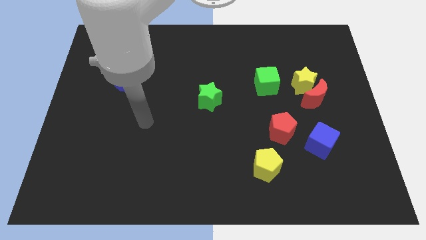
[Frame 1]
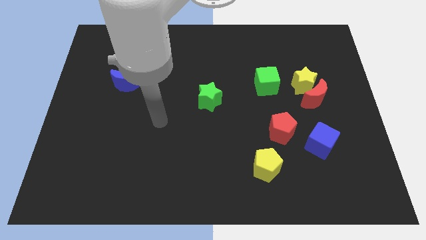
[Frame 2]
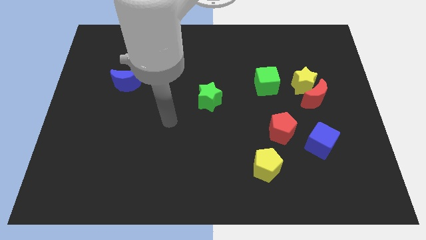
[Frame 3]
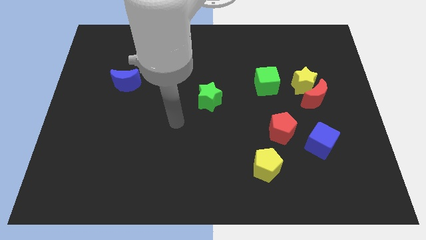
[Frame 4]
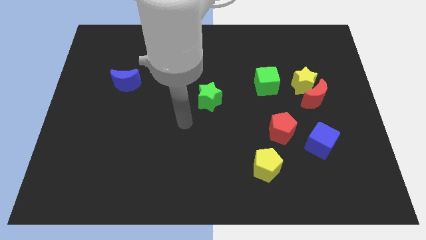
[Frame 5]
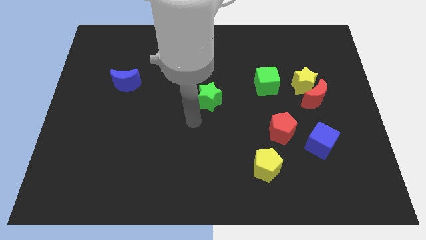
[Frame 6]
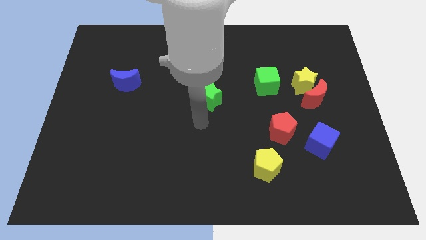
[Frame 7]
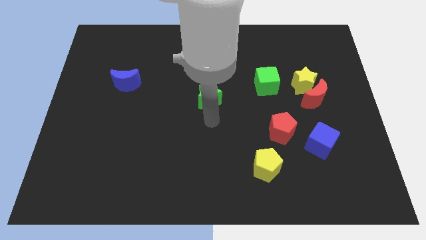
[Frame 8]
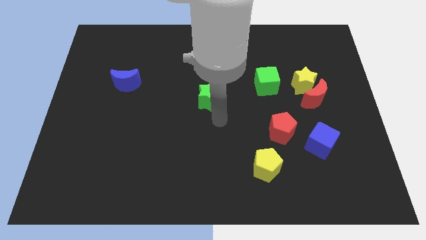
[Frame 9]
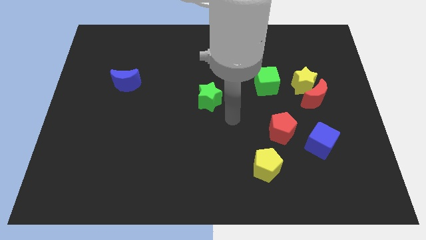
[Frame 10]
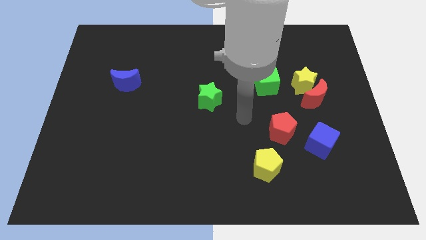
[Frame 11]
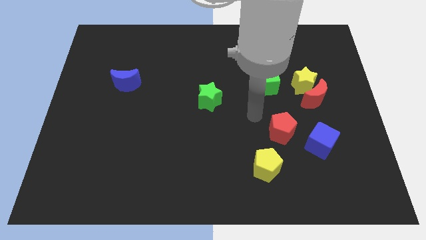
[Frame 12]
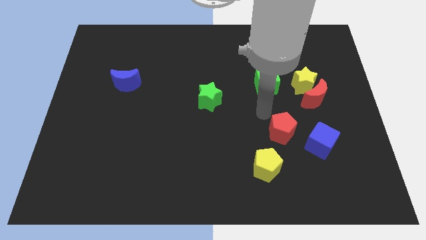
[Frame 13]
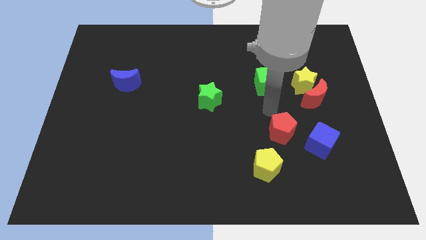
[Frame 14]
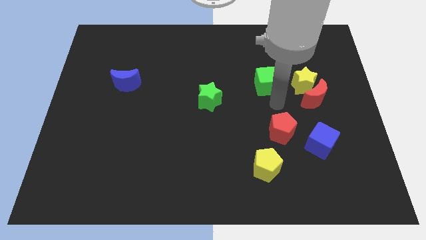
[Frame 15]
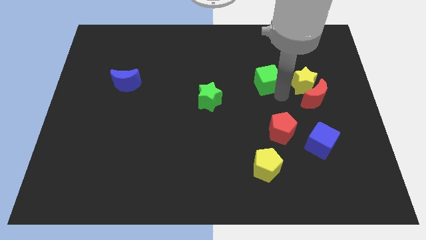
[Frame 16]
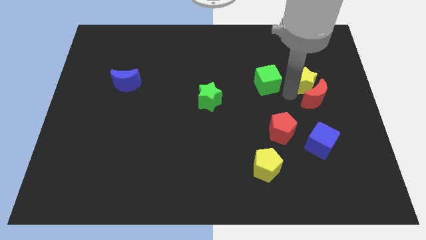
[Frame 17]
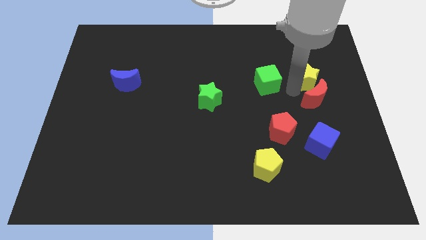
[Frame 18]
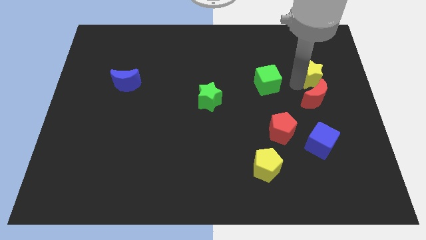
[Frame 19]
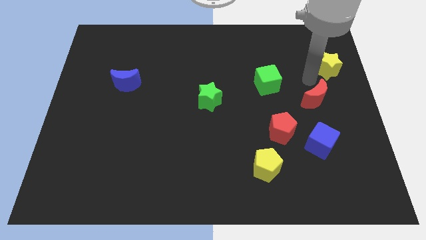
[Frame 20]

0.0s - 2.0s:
pull the red moon apart from the yellow star

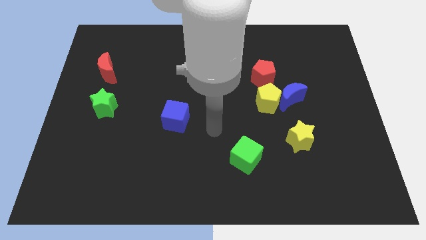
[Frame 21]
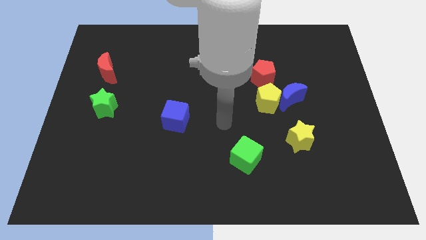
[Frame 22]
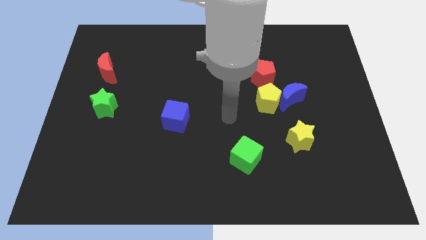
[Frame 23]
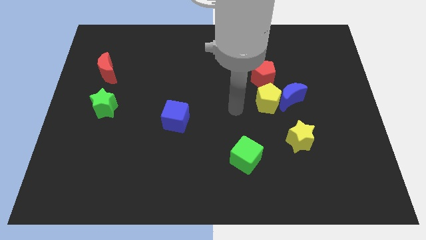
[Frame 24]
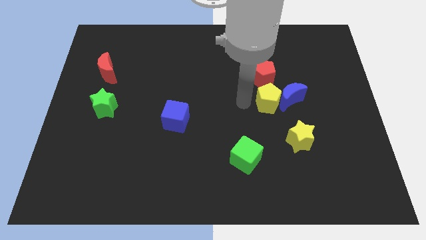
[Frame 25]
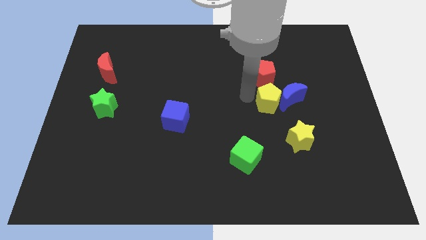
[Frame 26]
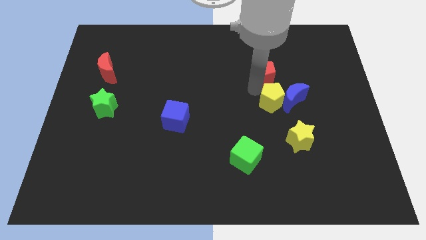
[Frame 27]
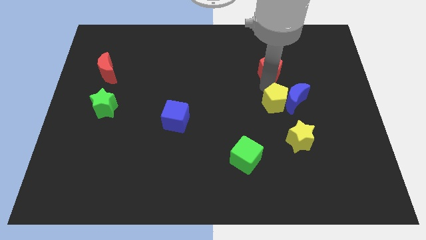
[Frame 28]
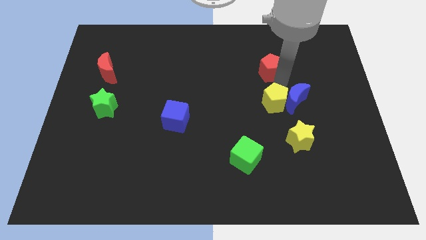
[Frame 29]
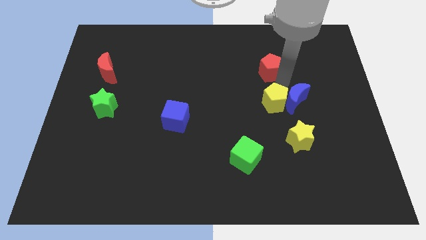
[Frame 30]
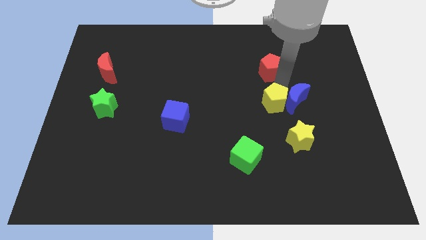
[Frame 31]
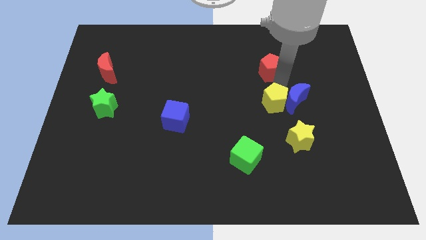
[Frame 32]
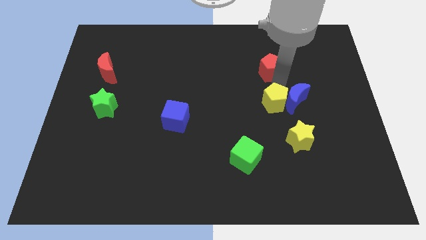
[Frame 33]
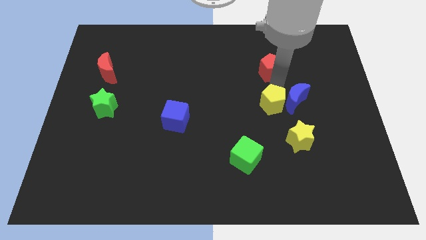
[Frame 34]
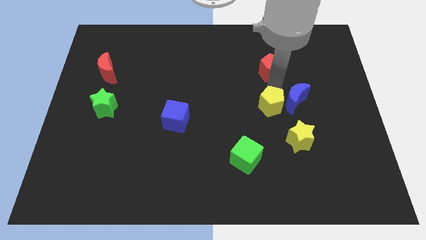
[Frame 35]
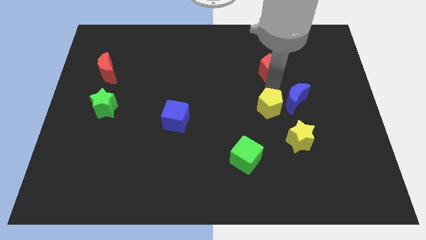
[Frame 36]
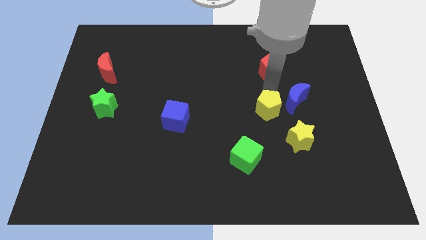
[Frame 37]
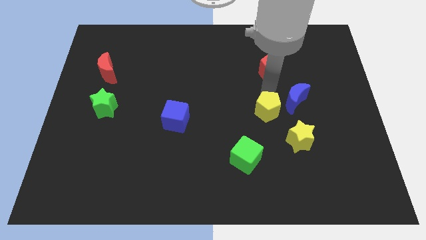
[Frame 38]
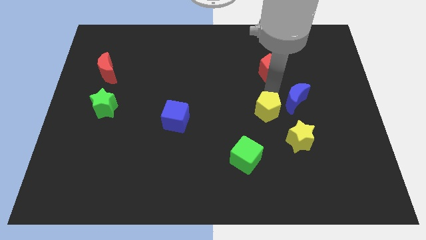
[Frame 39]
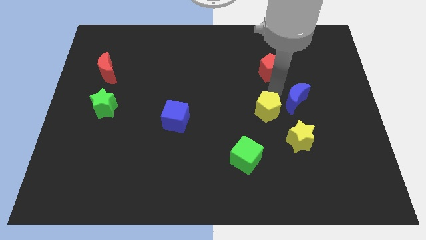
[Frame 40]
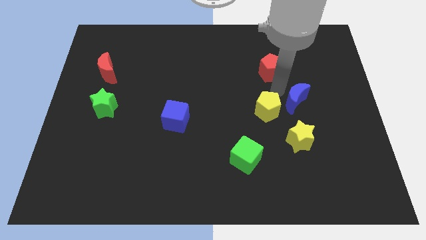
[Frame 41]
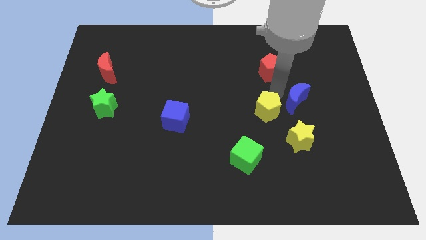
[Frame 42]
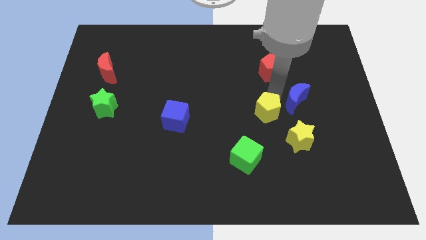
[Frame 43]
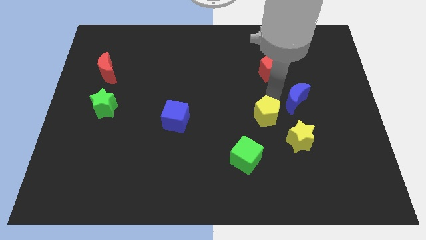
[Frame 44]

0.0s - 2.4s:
separate the yellow pentagon from the blue moon and red pentagon

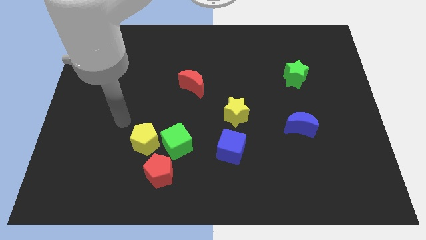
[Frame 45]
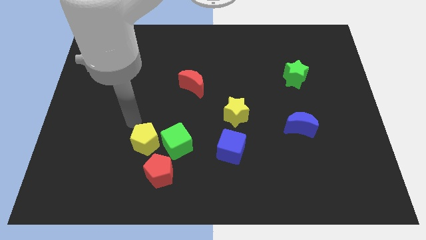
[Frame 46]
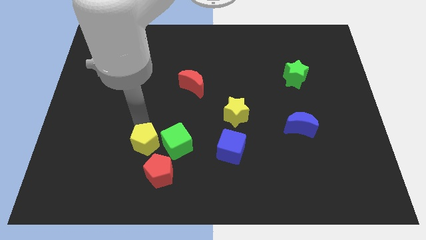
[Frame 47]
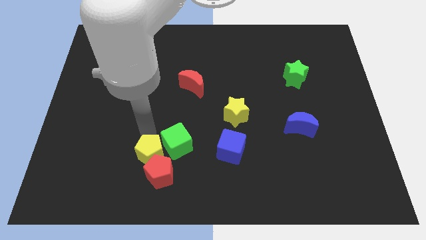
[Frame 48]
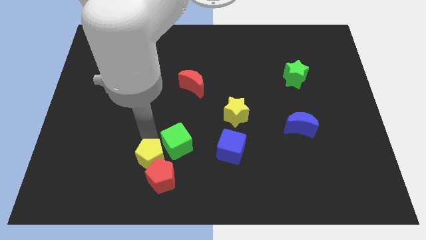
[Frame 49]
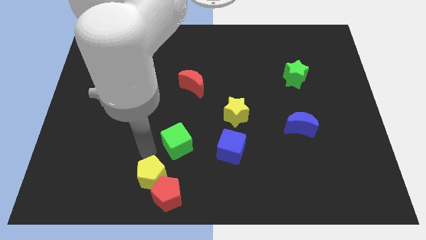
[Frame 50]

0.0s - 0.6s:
move the green cube away from the yellow pentagon and red pentagon

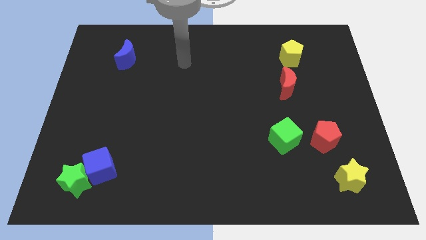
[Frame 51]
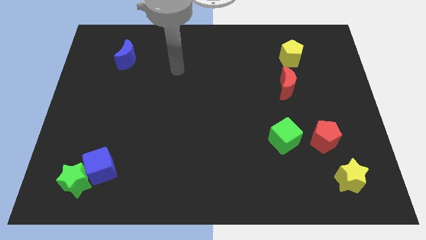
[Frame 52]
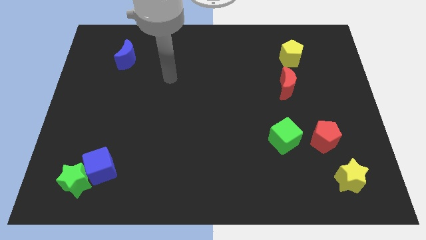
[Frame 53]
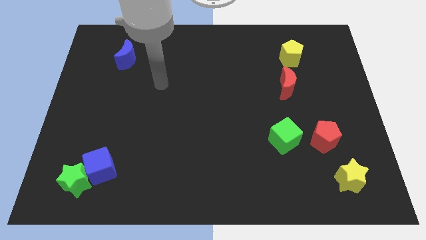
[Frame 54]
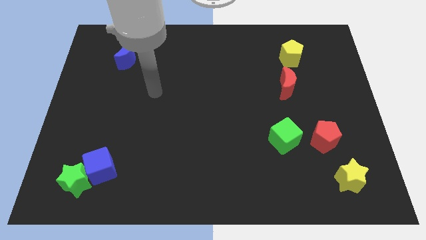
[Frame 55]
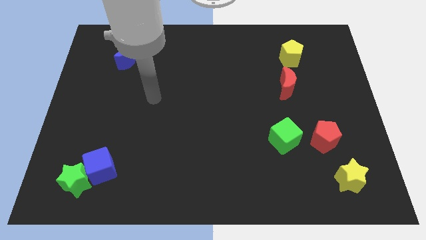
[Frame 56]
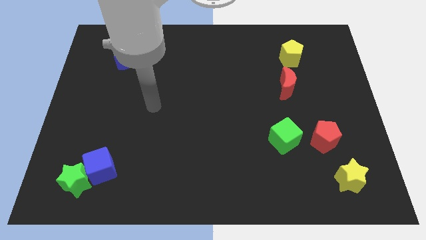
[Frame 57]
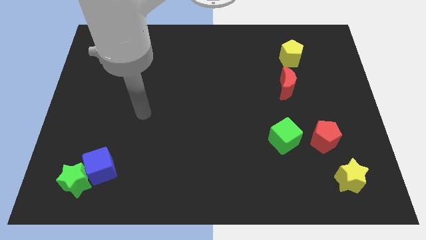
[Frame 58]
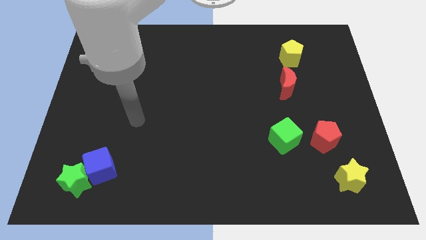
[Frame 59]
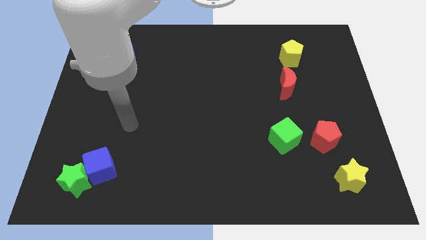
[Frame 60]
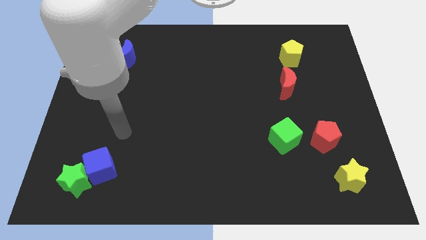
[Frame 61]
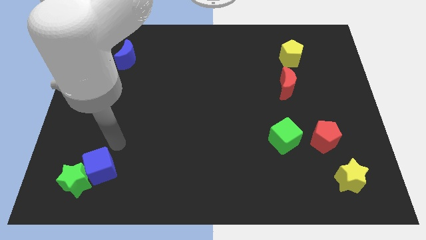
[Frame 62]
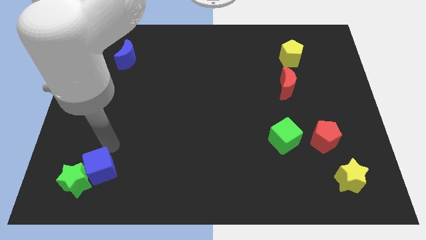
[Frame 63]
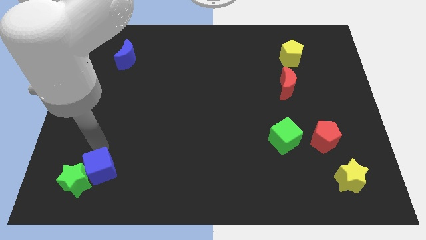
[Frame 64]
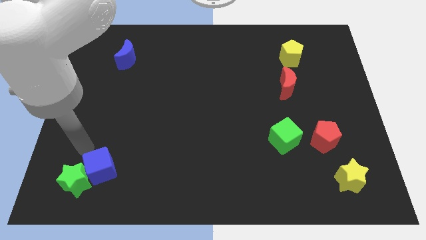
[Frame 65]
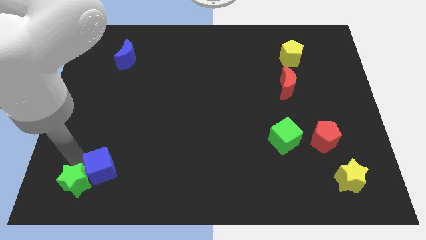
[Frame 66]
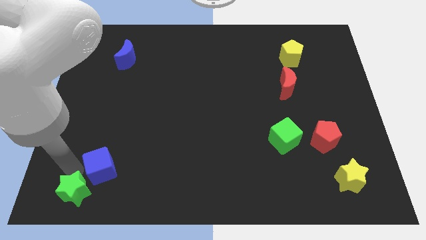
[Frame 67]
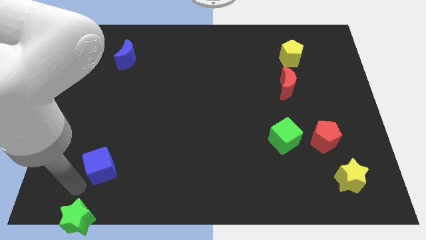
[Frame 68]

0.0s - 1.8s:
move the blue cube away from the green star

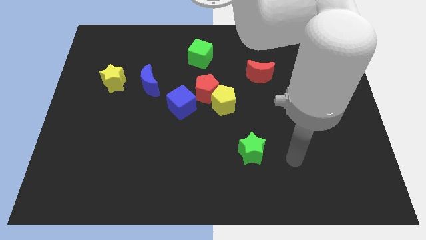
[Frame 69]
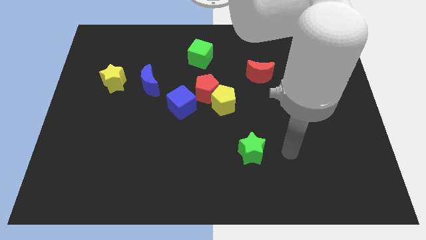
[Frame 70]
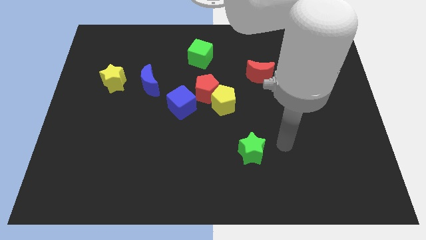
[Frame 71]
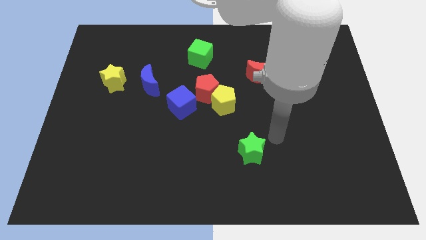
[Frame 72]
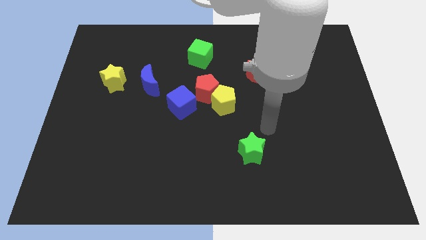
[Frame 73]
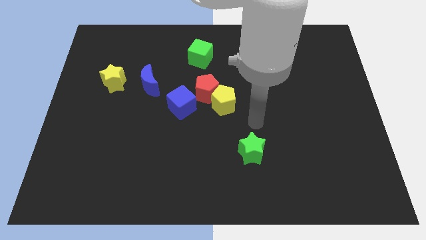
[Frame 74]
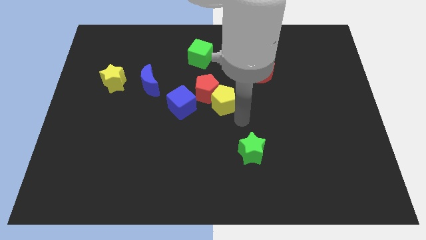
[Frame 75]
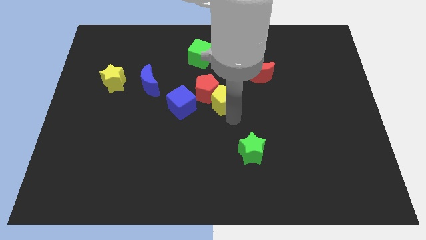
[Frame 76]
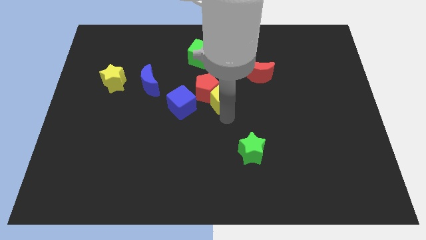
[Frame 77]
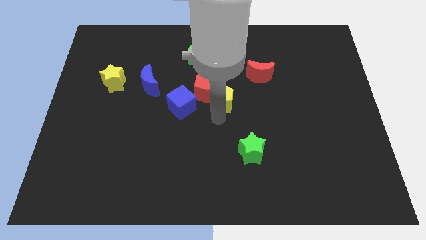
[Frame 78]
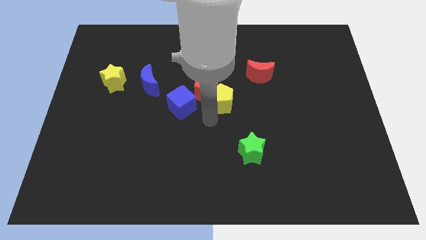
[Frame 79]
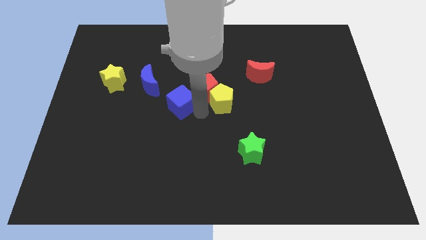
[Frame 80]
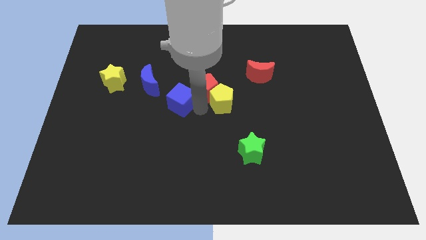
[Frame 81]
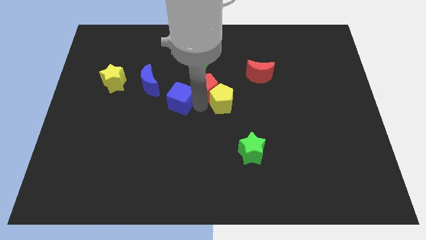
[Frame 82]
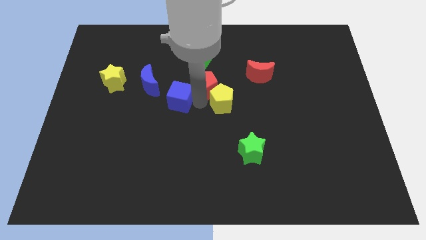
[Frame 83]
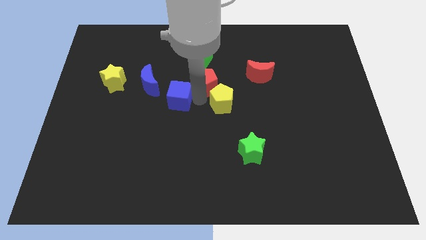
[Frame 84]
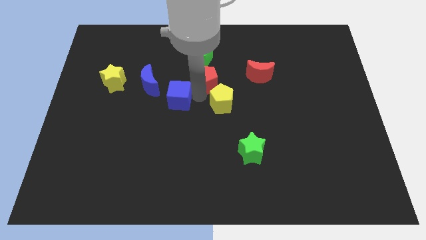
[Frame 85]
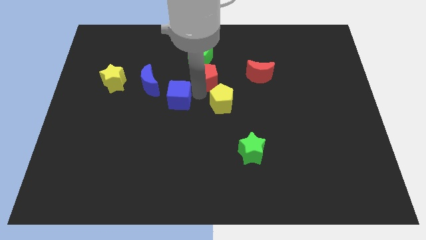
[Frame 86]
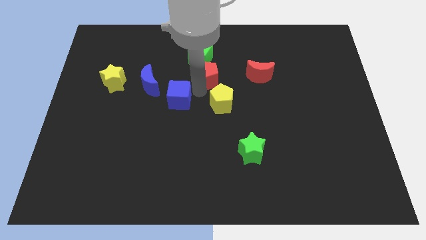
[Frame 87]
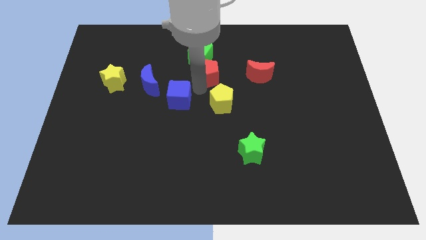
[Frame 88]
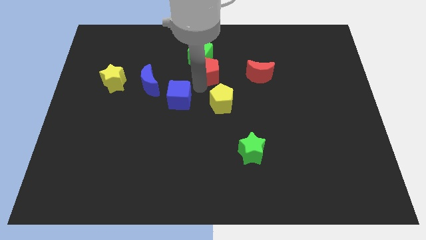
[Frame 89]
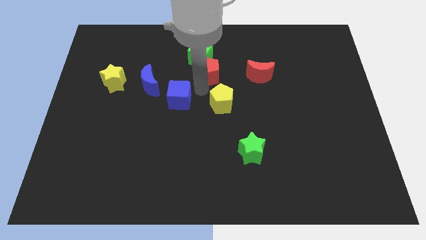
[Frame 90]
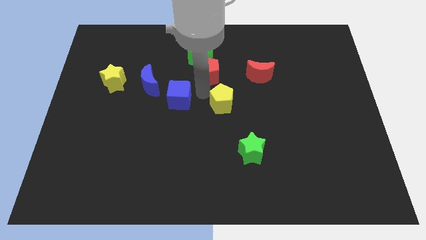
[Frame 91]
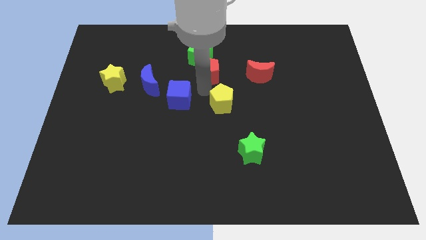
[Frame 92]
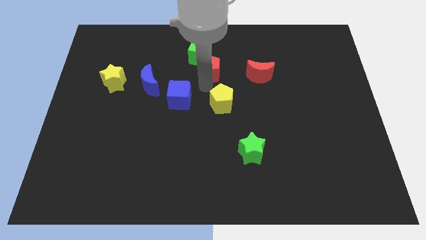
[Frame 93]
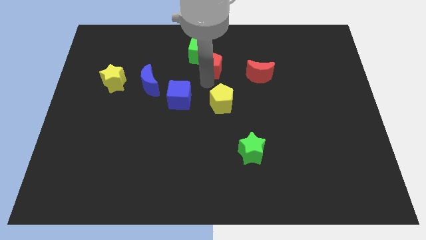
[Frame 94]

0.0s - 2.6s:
separate the red pentagon from the yellow pentagon and blue cube
